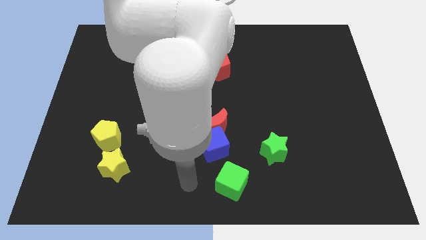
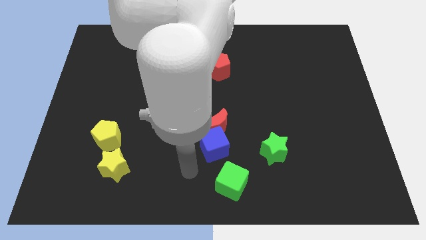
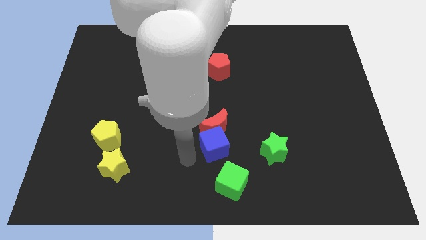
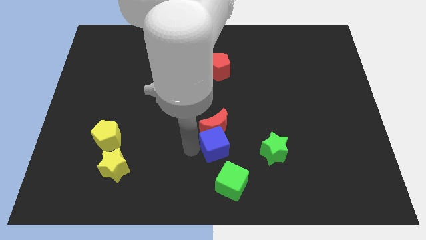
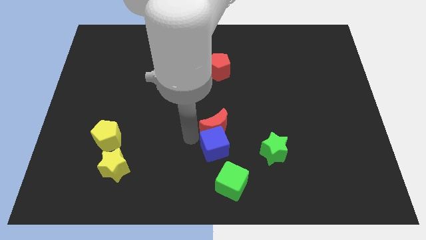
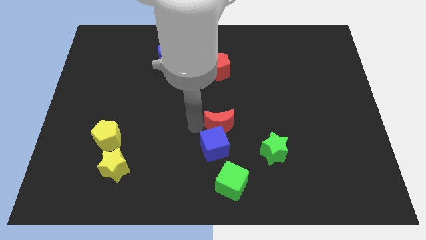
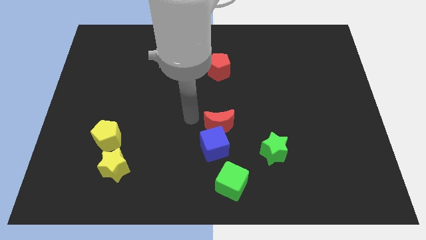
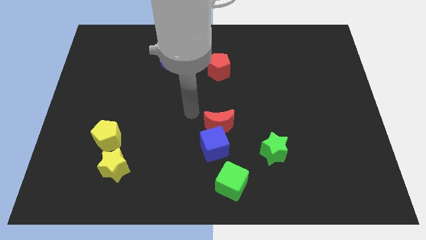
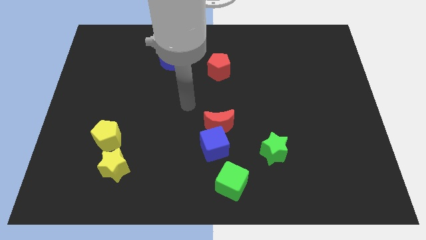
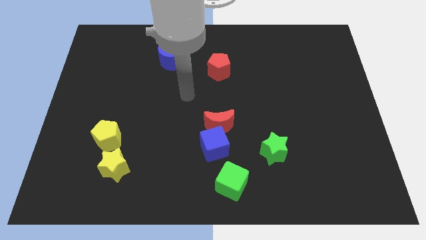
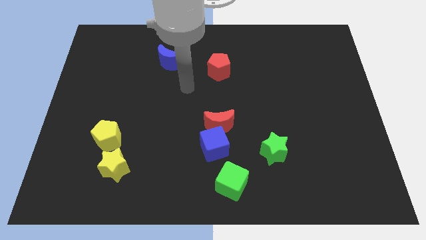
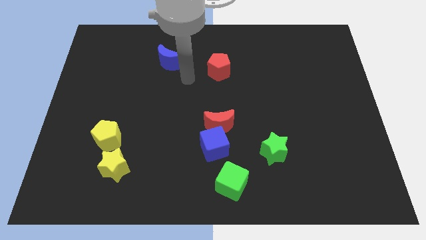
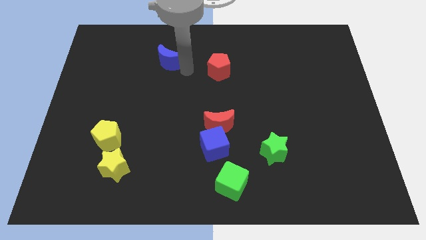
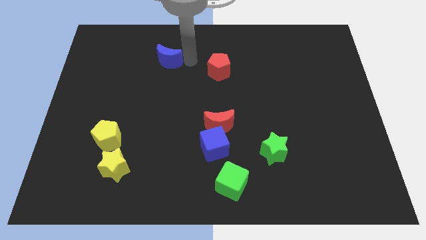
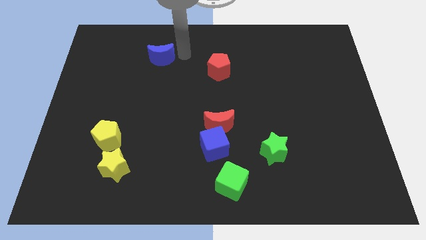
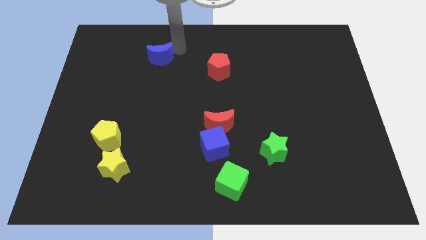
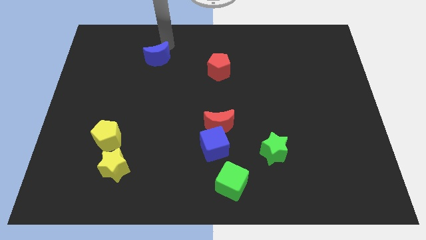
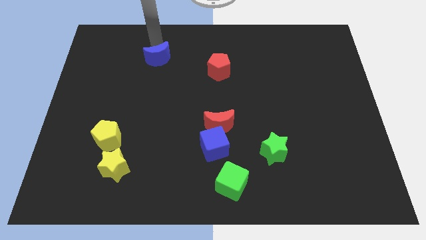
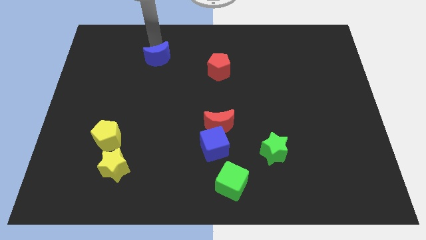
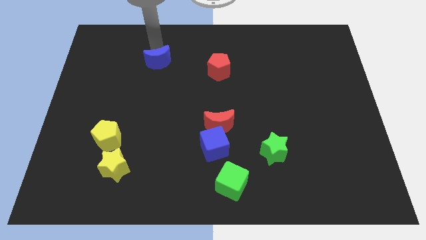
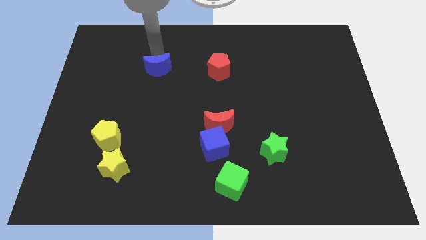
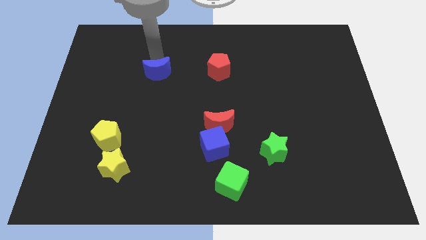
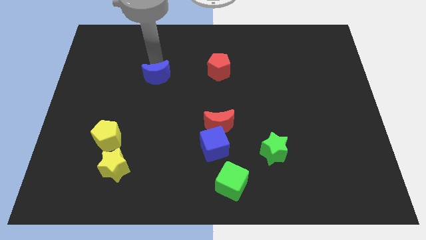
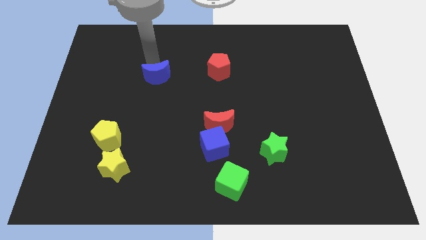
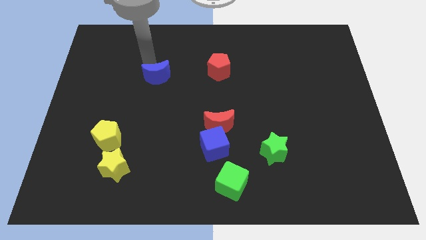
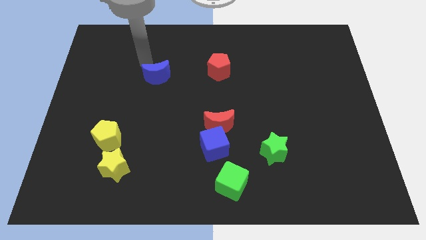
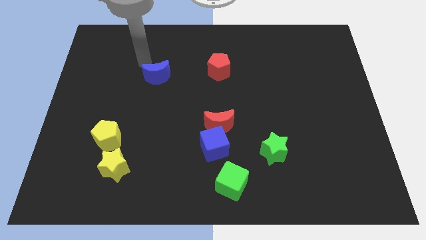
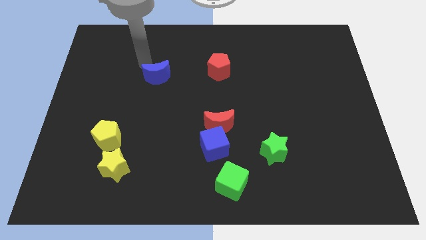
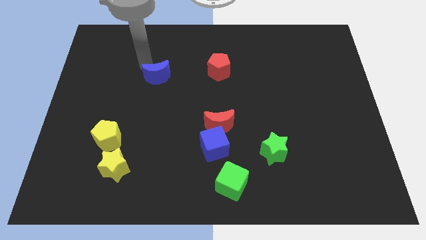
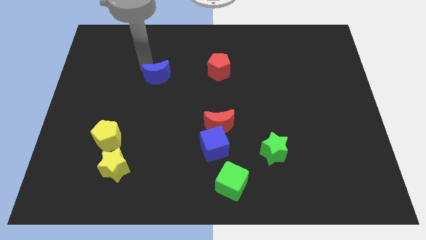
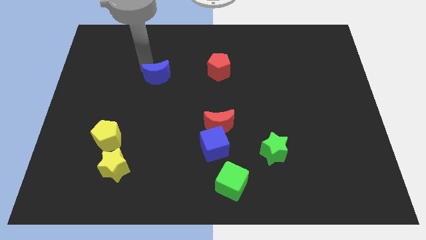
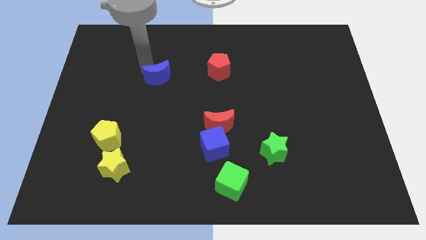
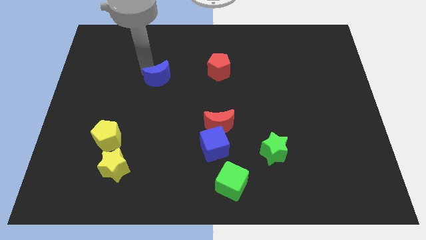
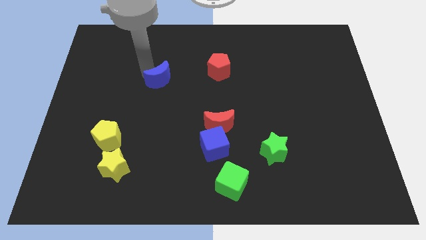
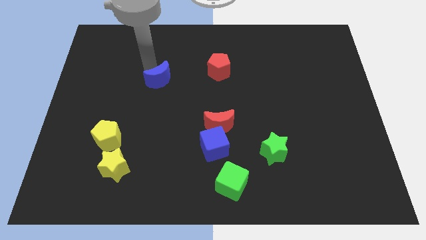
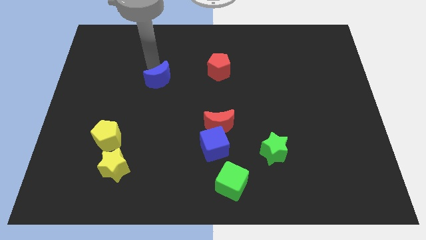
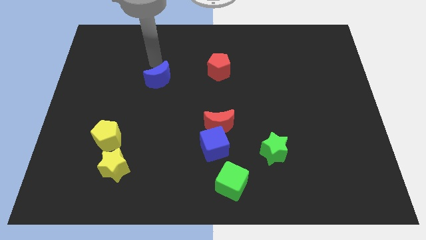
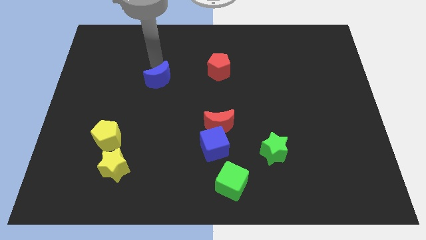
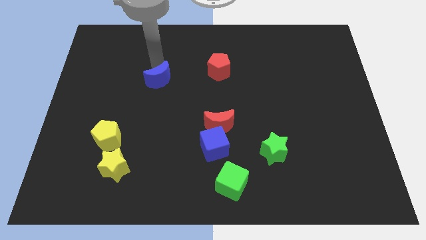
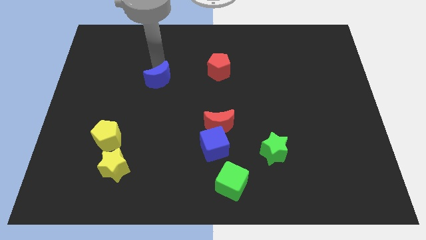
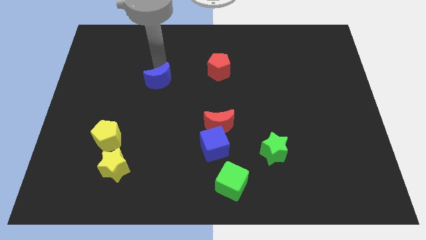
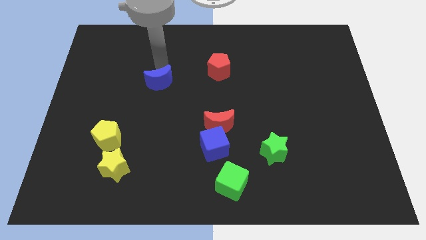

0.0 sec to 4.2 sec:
slide the blue moon down slightly

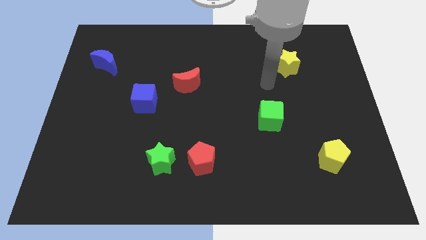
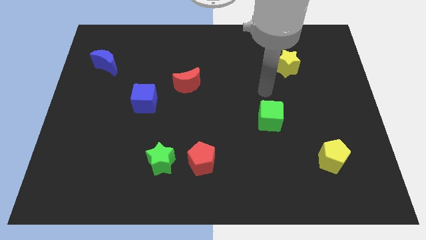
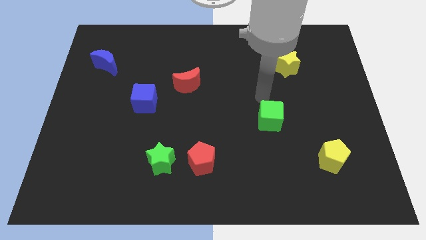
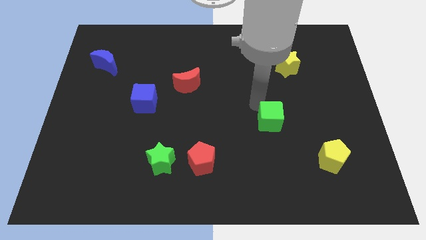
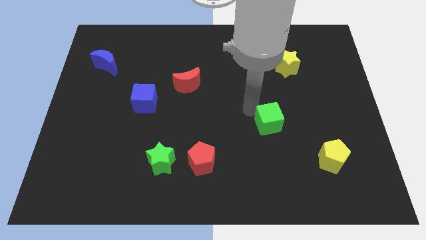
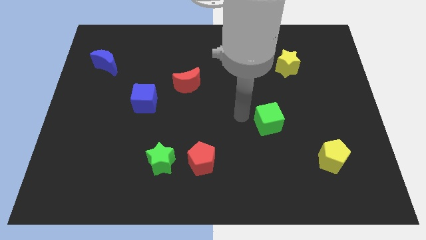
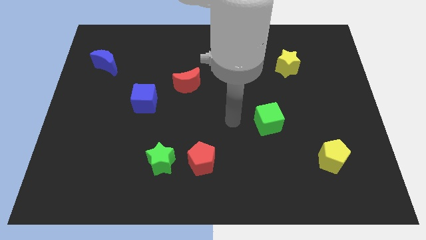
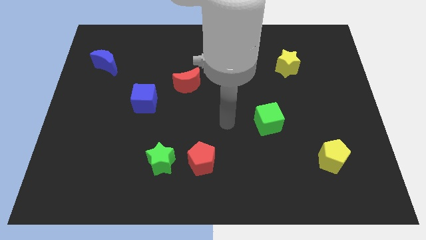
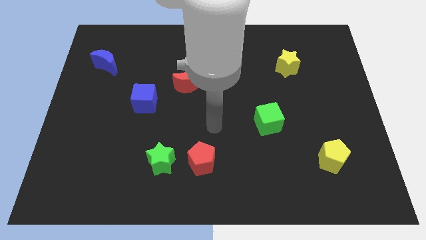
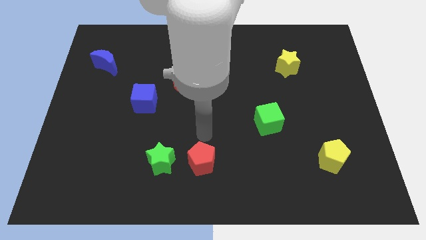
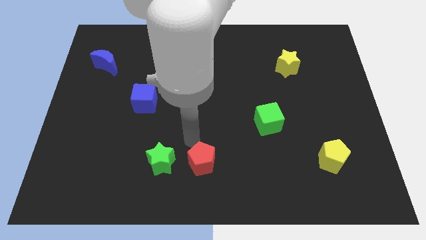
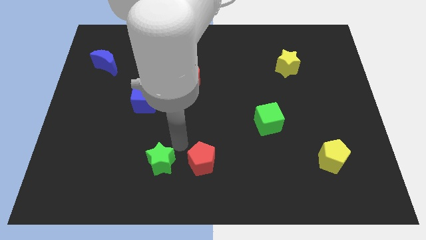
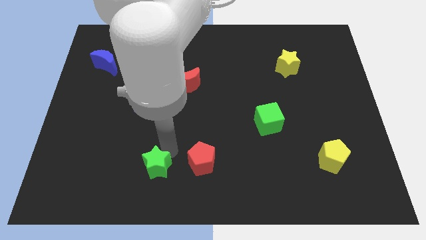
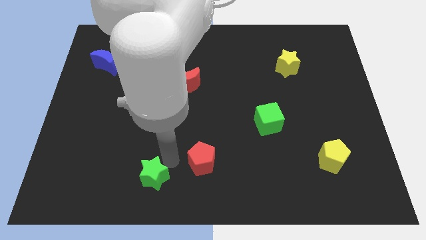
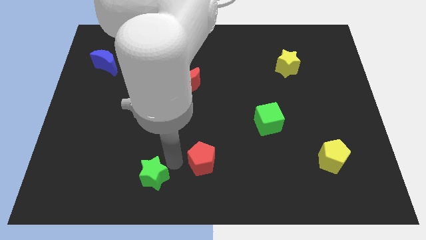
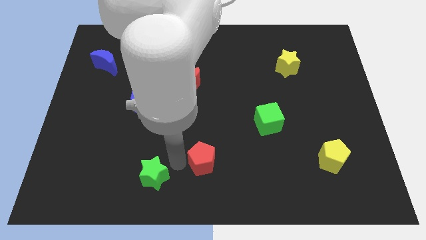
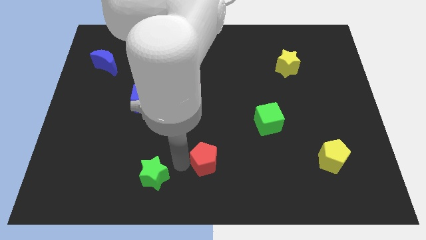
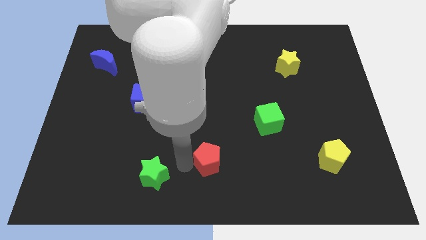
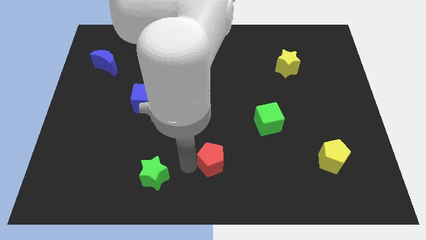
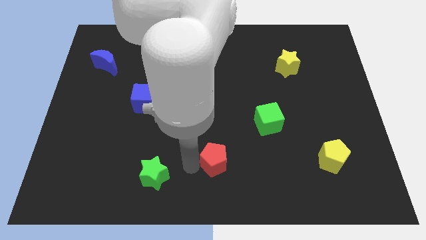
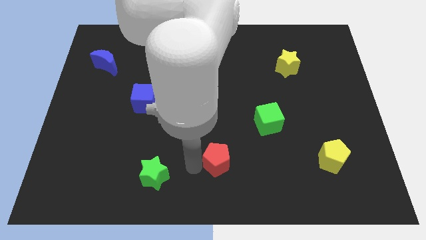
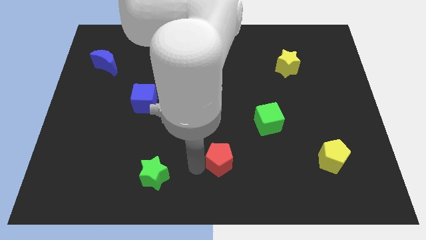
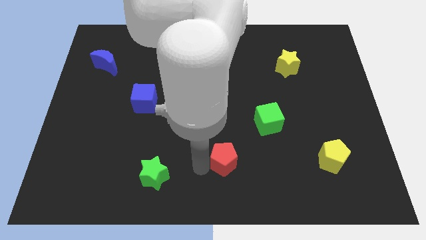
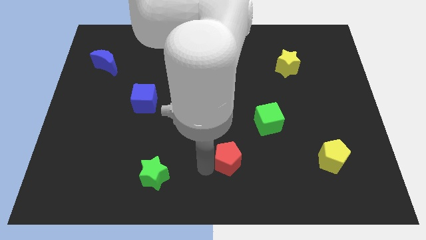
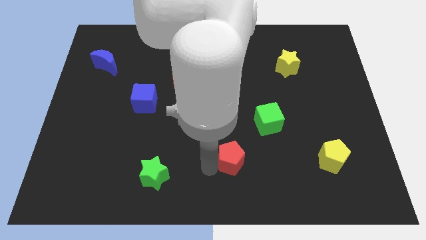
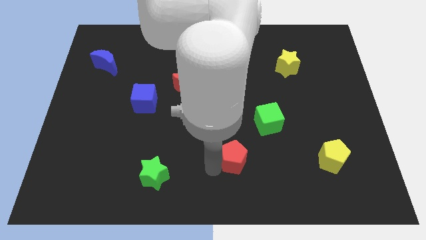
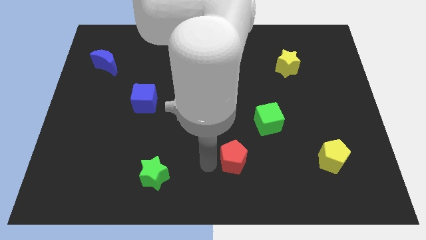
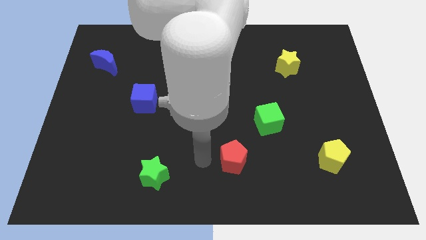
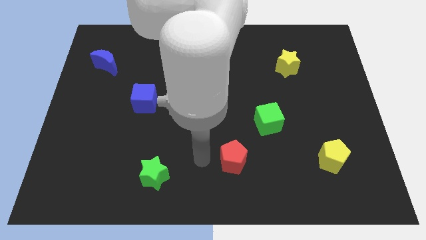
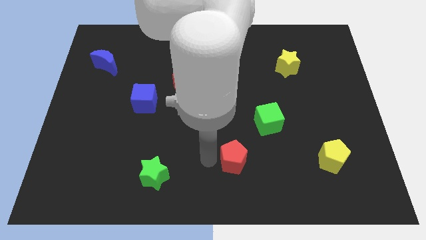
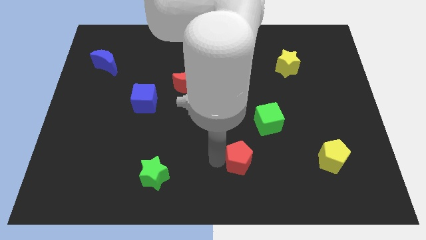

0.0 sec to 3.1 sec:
move the red pentagon a little bit right

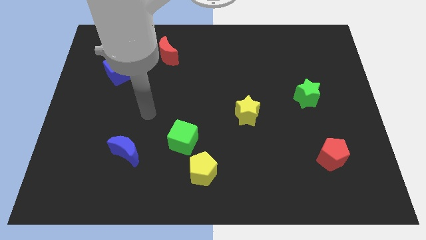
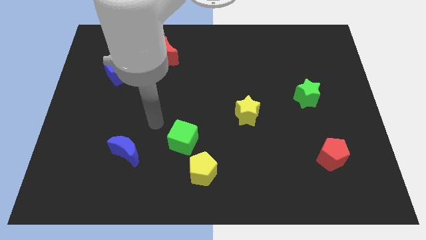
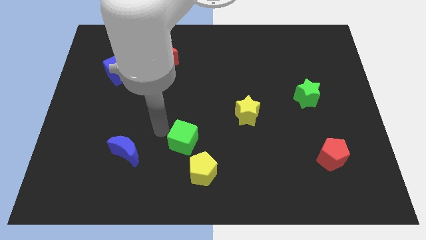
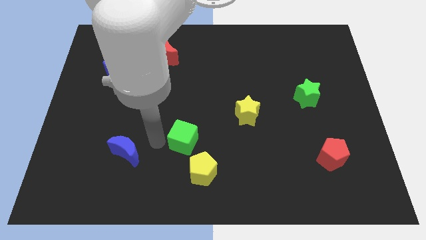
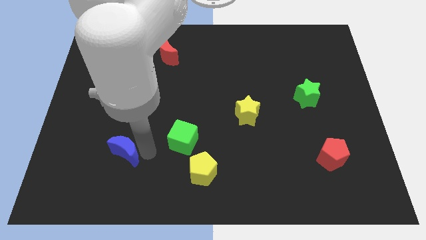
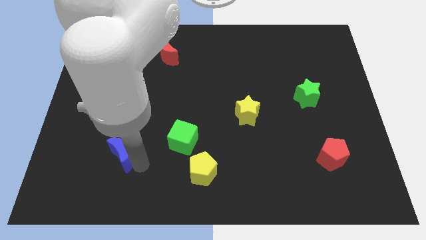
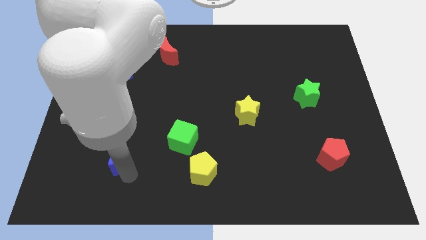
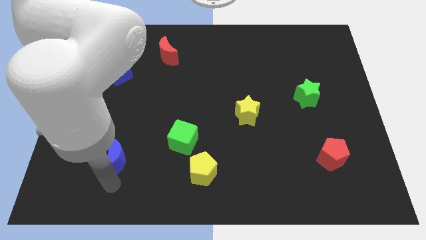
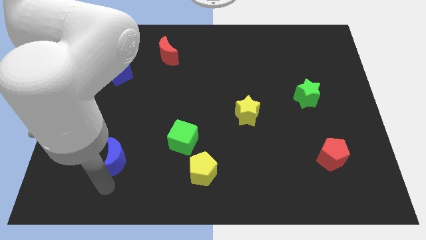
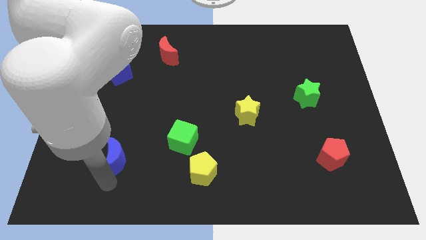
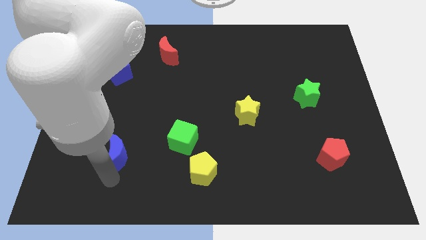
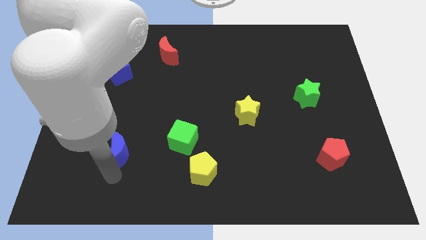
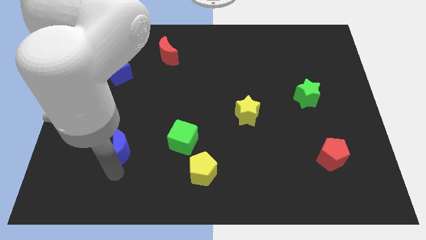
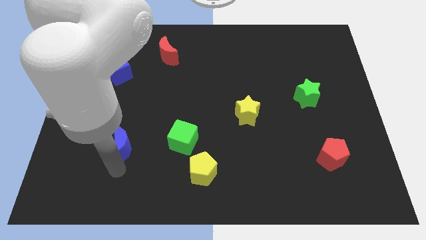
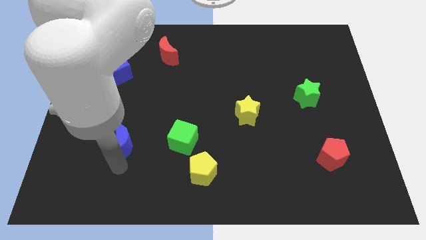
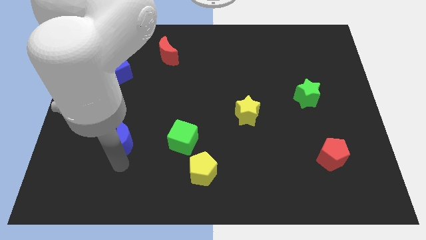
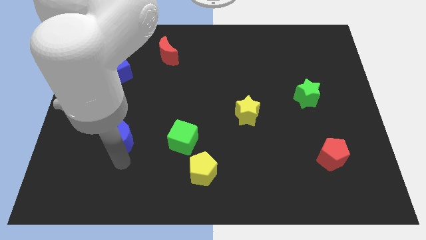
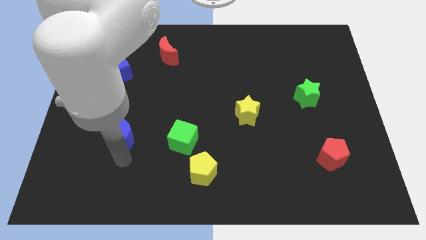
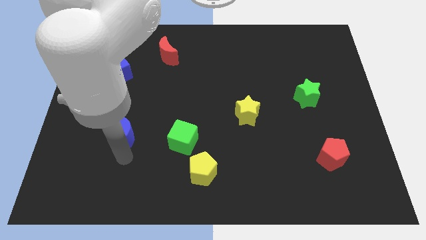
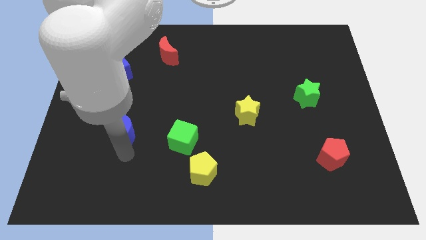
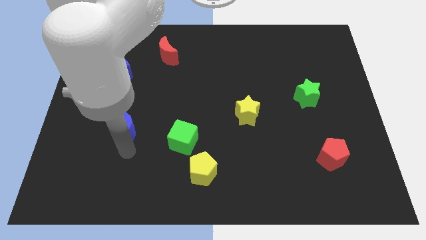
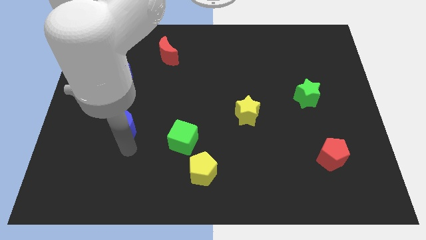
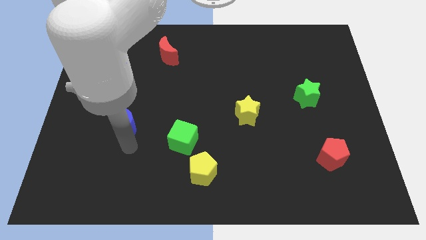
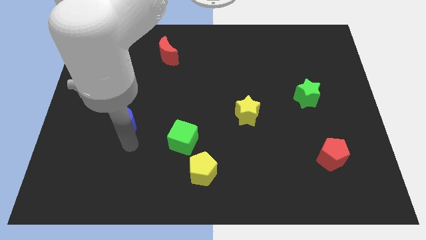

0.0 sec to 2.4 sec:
slightly slide the blue moon up
